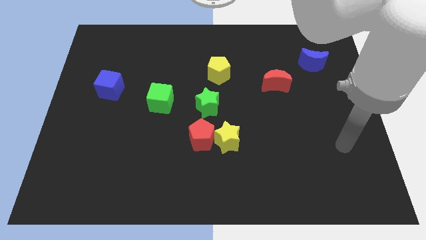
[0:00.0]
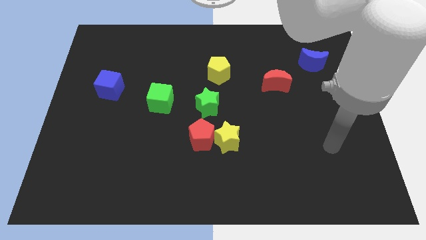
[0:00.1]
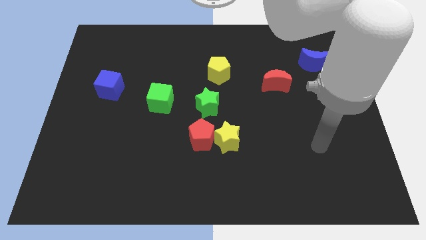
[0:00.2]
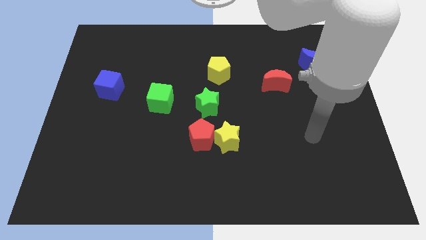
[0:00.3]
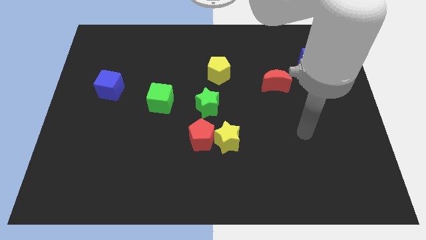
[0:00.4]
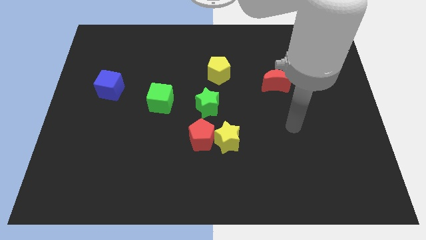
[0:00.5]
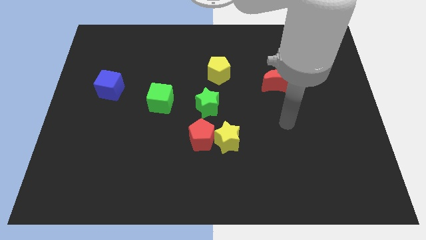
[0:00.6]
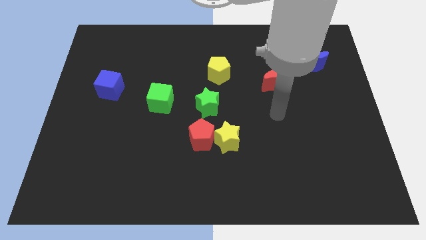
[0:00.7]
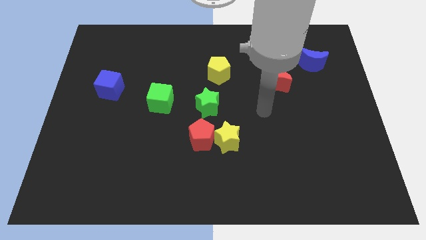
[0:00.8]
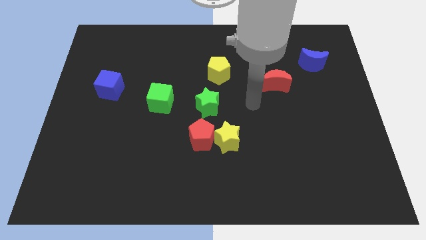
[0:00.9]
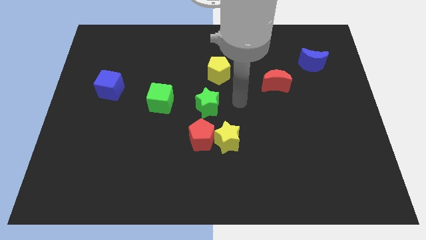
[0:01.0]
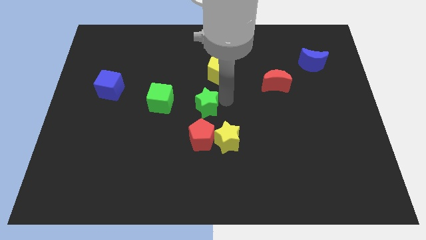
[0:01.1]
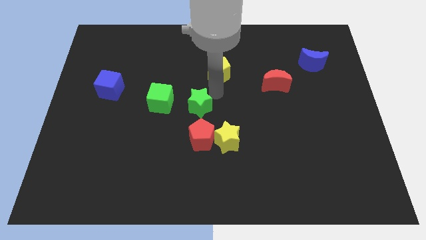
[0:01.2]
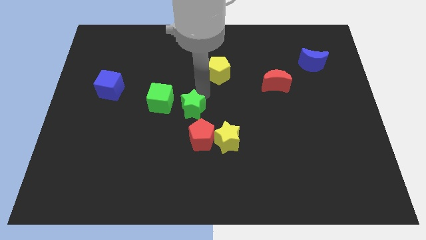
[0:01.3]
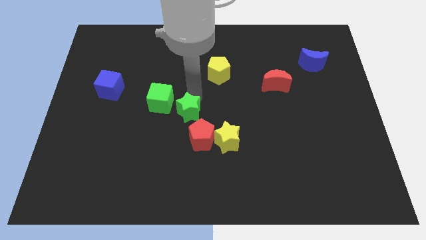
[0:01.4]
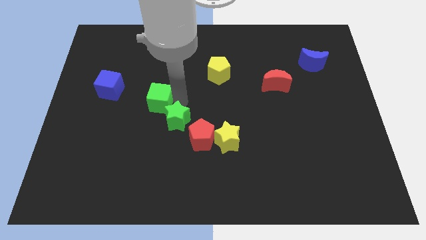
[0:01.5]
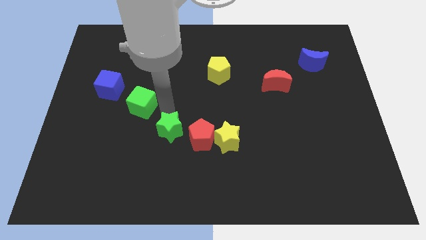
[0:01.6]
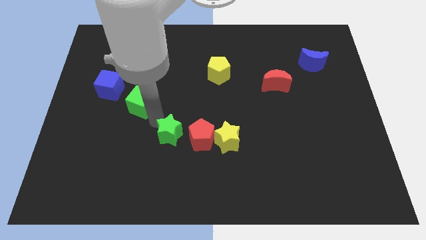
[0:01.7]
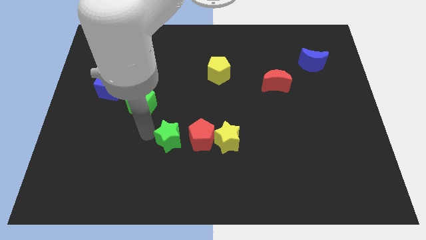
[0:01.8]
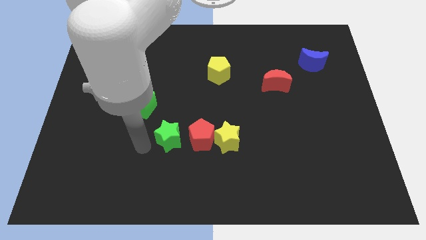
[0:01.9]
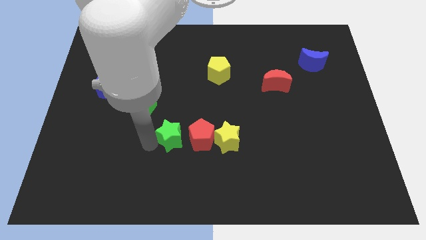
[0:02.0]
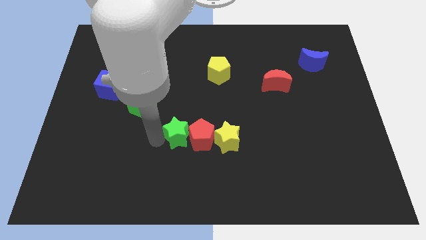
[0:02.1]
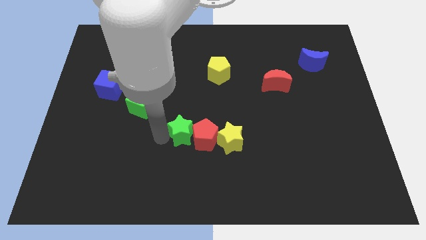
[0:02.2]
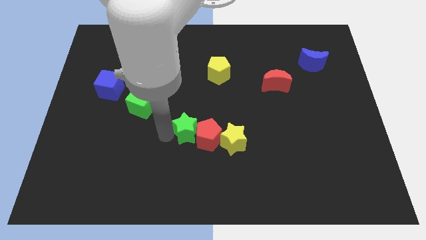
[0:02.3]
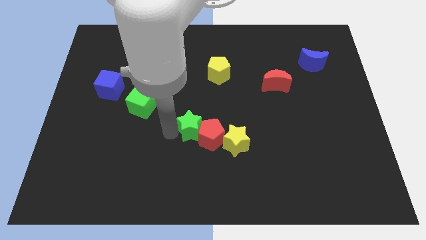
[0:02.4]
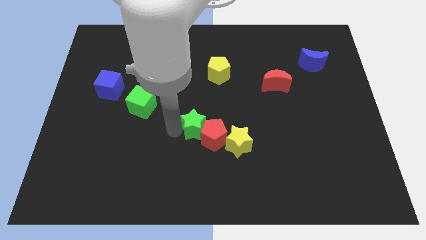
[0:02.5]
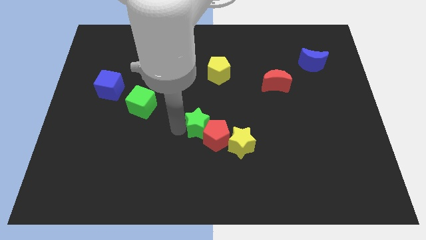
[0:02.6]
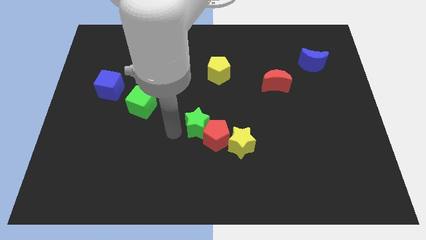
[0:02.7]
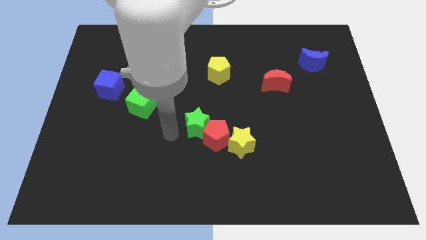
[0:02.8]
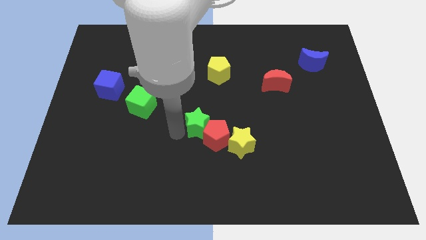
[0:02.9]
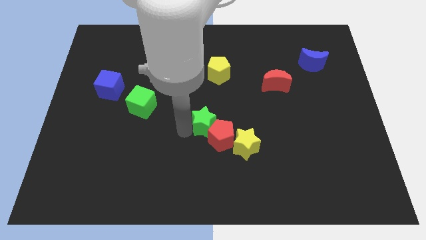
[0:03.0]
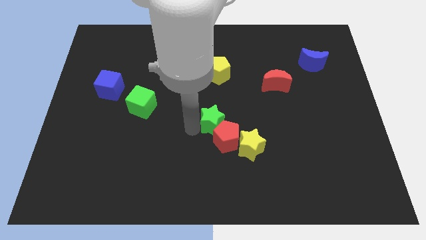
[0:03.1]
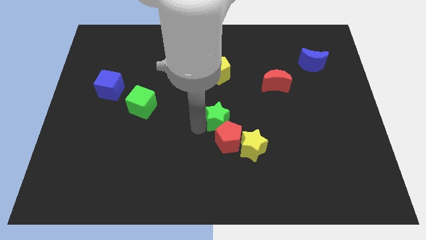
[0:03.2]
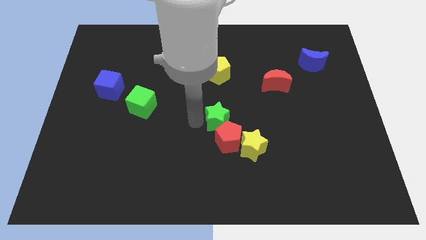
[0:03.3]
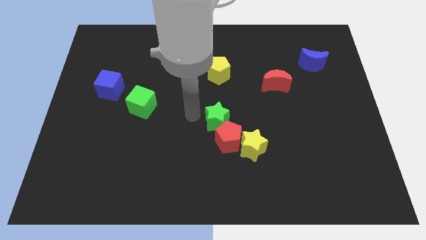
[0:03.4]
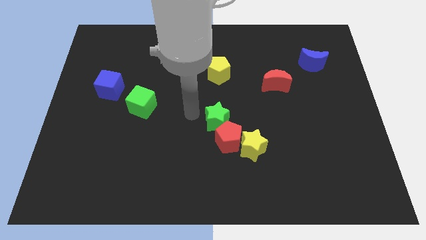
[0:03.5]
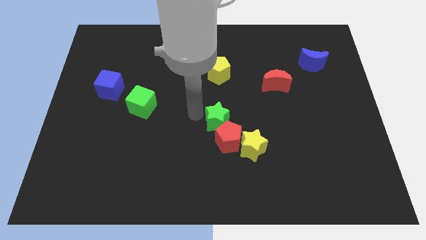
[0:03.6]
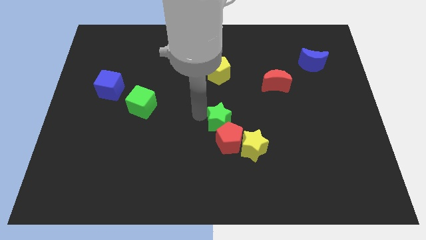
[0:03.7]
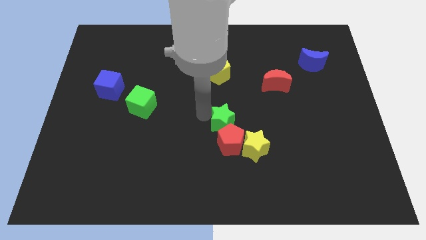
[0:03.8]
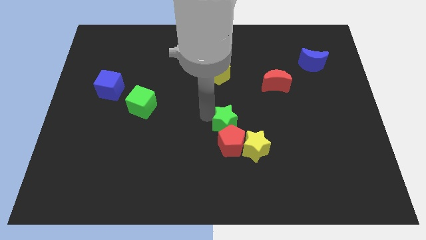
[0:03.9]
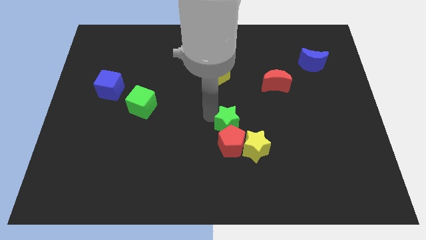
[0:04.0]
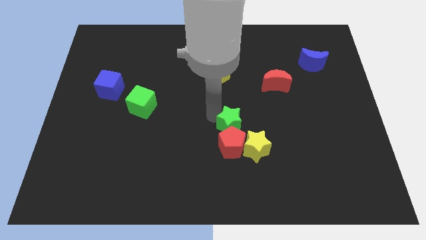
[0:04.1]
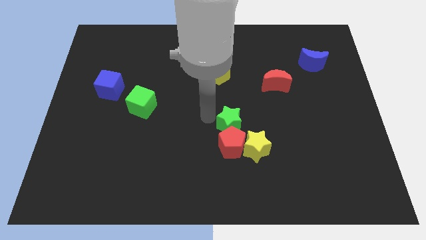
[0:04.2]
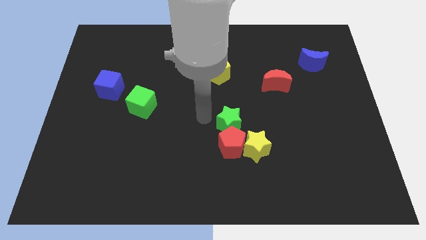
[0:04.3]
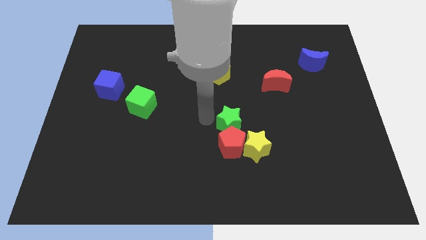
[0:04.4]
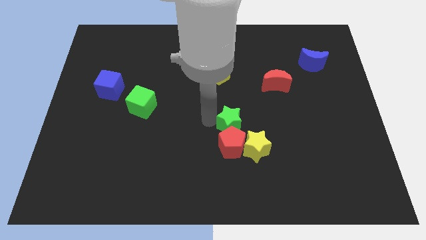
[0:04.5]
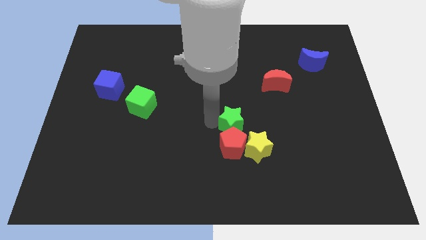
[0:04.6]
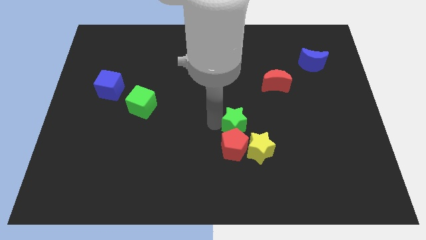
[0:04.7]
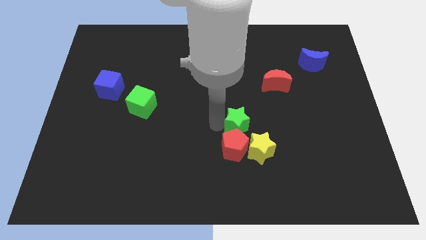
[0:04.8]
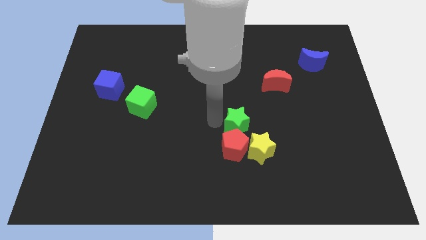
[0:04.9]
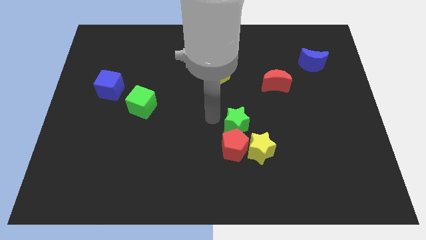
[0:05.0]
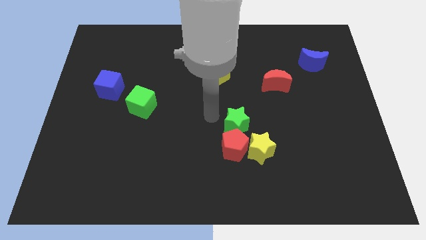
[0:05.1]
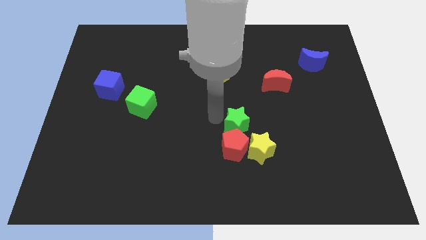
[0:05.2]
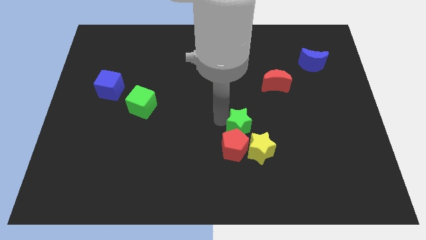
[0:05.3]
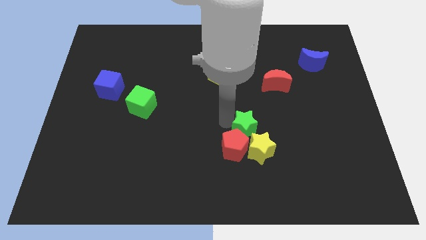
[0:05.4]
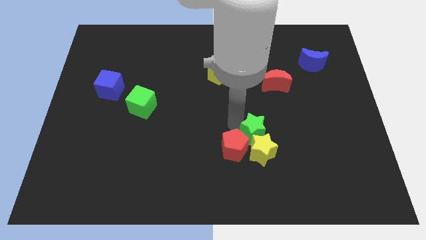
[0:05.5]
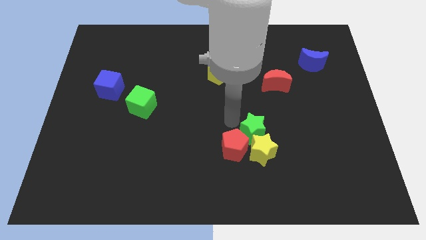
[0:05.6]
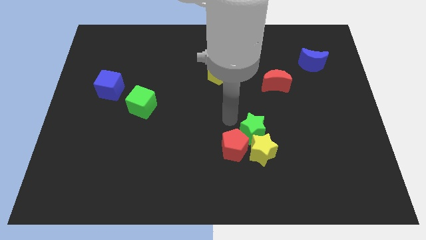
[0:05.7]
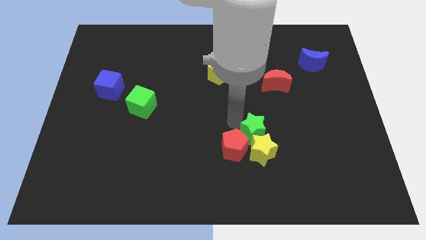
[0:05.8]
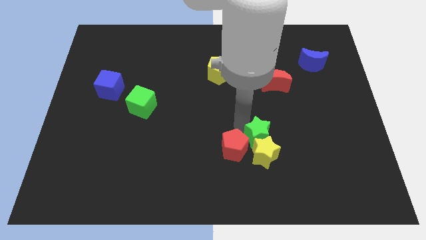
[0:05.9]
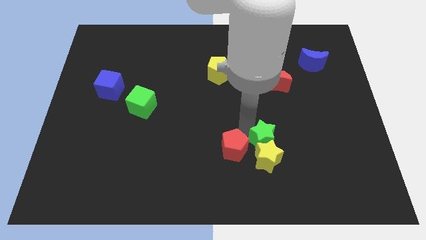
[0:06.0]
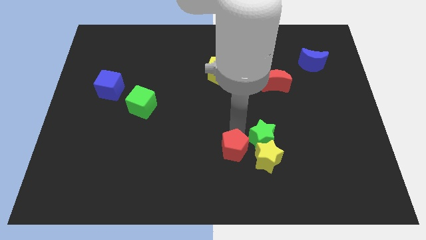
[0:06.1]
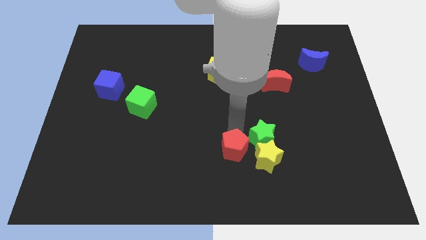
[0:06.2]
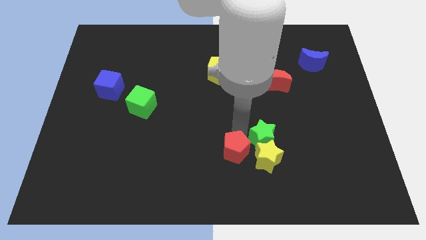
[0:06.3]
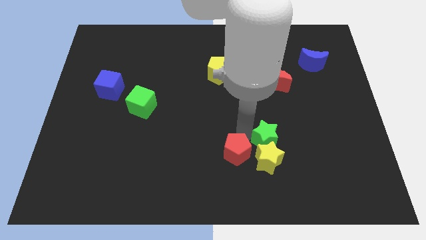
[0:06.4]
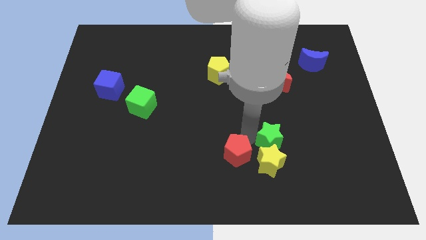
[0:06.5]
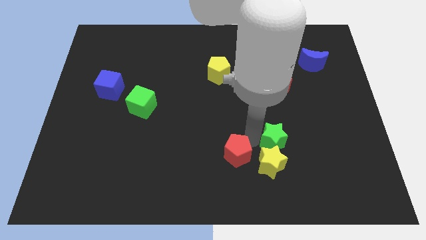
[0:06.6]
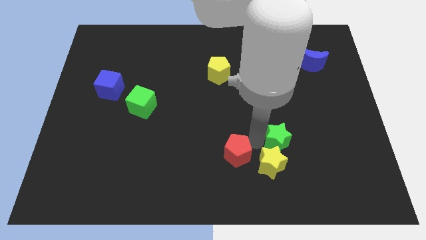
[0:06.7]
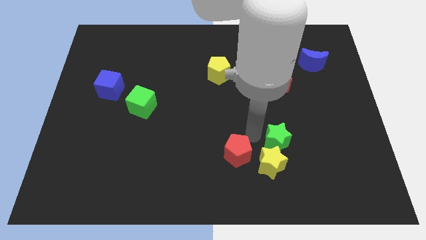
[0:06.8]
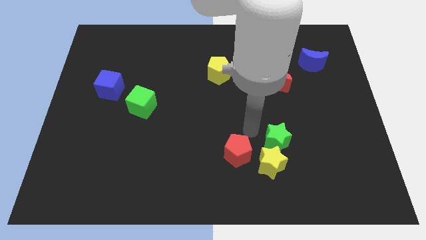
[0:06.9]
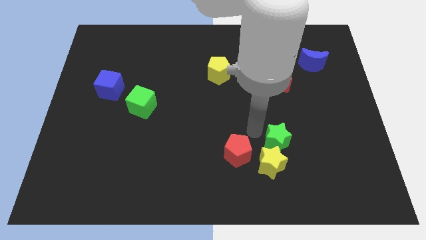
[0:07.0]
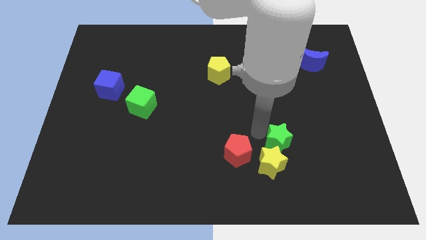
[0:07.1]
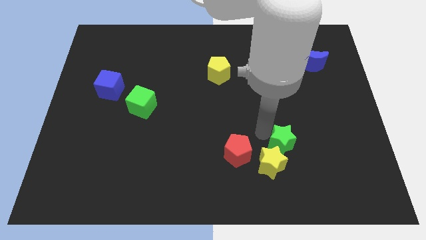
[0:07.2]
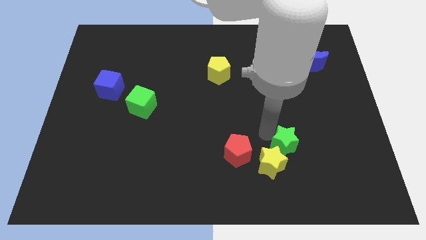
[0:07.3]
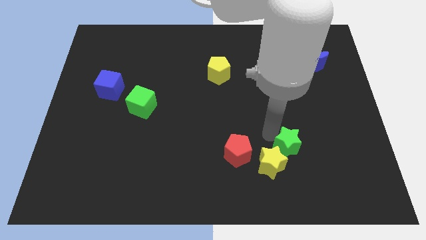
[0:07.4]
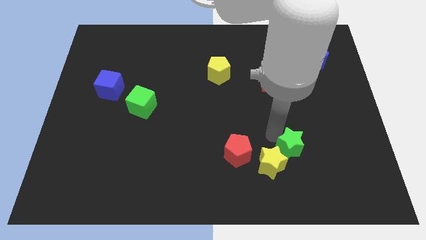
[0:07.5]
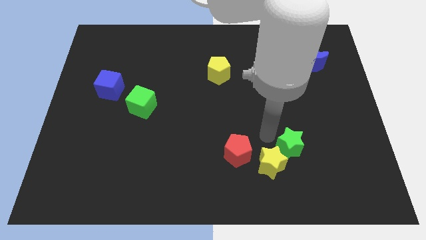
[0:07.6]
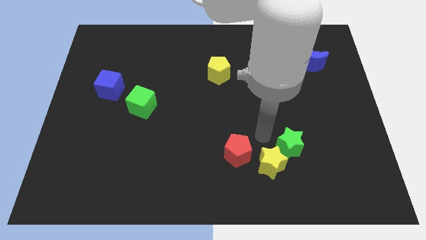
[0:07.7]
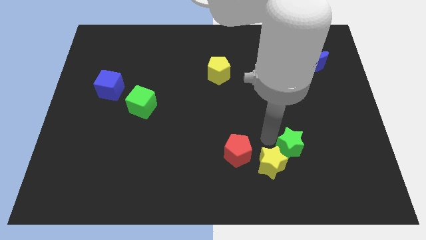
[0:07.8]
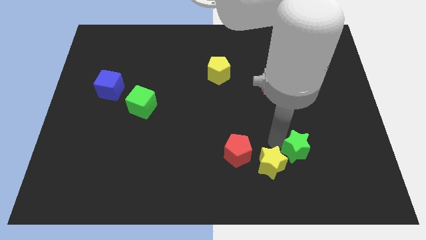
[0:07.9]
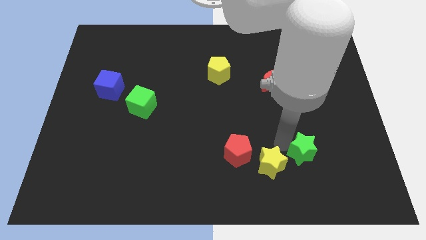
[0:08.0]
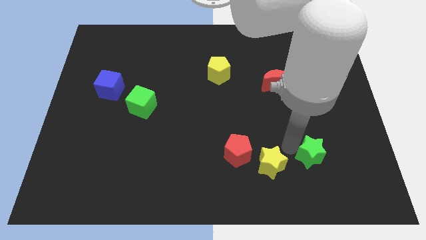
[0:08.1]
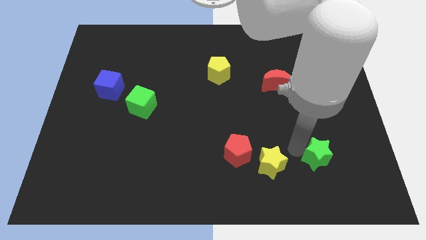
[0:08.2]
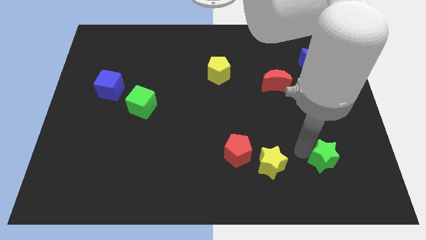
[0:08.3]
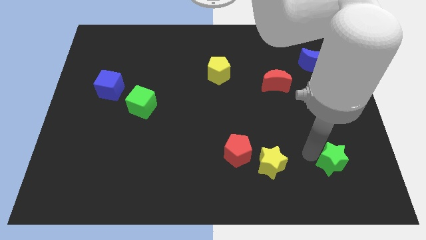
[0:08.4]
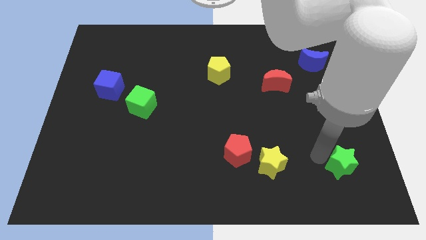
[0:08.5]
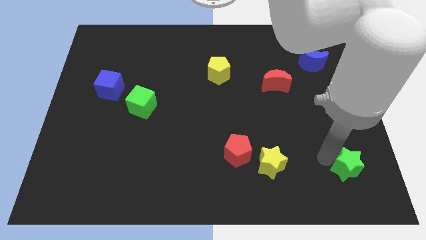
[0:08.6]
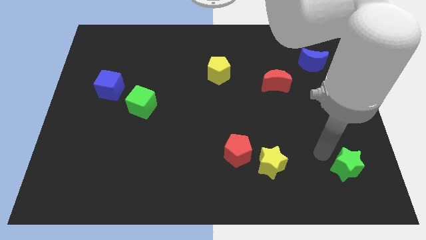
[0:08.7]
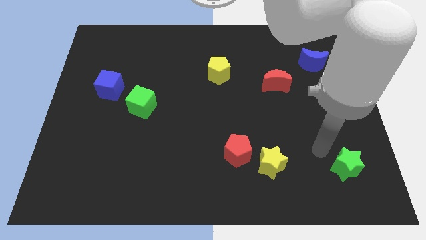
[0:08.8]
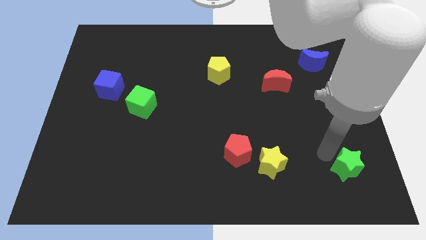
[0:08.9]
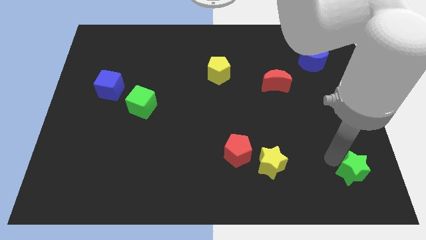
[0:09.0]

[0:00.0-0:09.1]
move the green star to the bottom right corner
